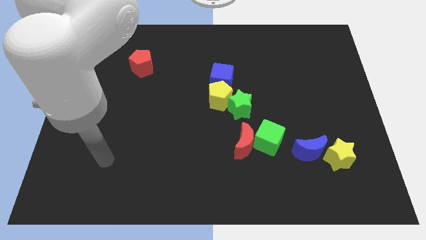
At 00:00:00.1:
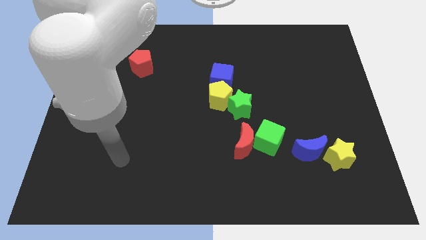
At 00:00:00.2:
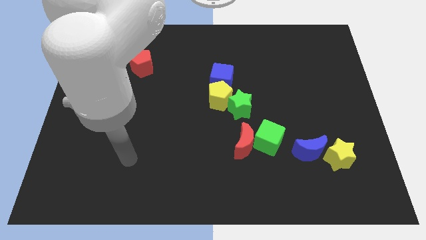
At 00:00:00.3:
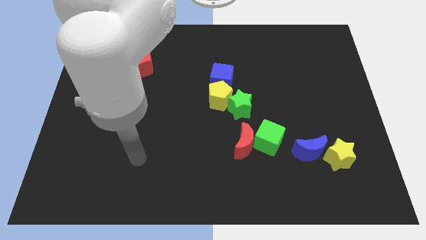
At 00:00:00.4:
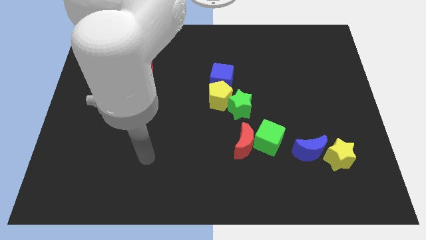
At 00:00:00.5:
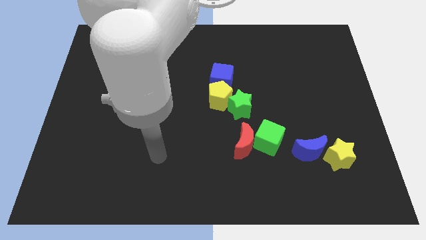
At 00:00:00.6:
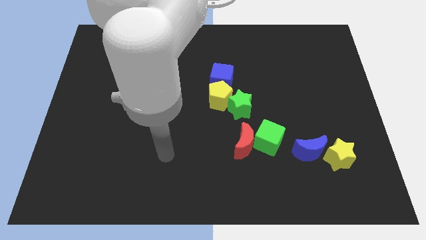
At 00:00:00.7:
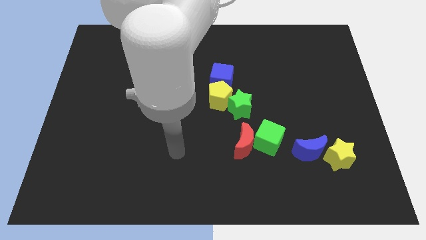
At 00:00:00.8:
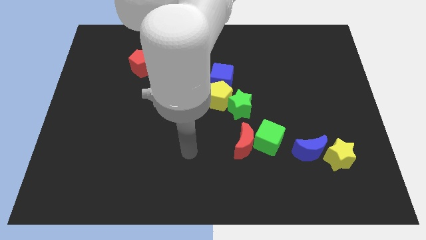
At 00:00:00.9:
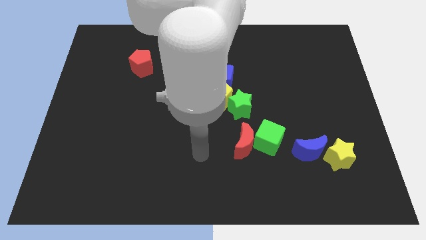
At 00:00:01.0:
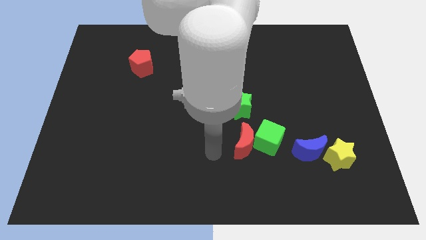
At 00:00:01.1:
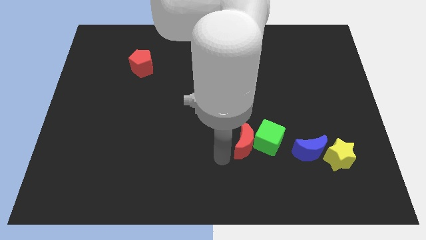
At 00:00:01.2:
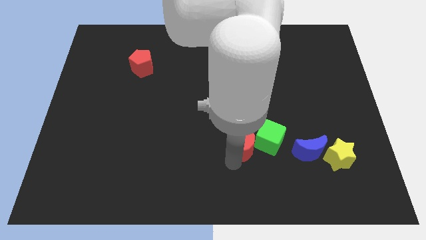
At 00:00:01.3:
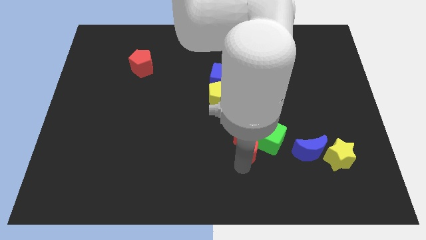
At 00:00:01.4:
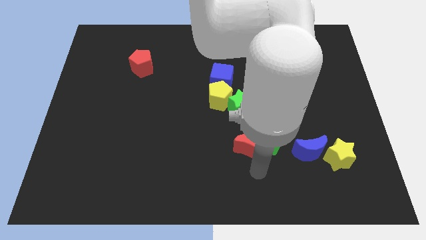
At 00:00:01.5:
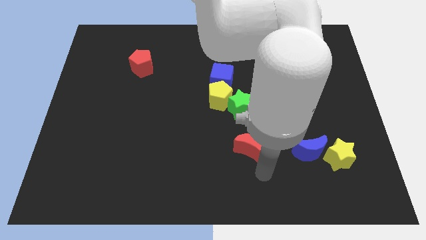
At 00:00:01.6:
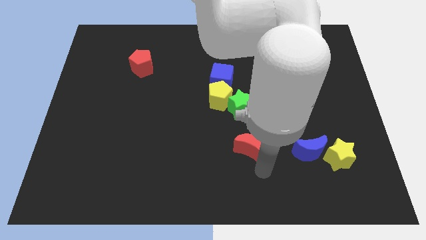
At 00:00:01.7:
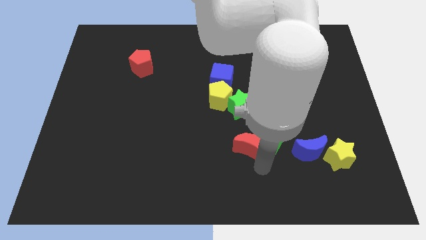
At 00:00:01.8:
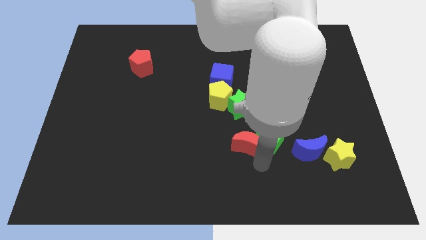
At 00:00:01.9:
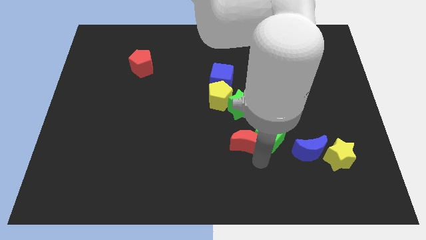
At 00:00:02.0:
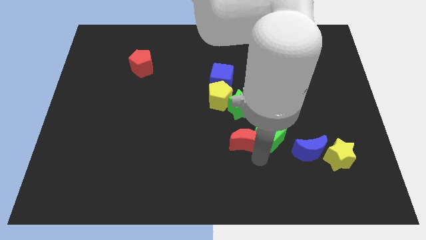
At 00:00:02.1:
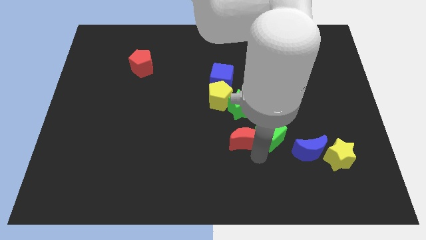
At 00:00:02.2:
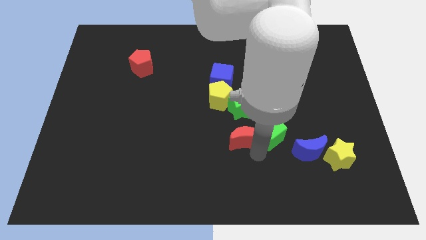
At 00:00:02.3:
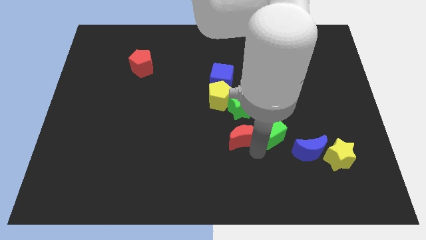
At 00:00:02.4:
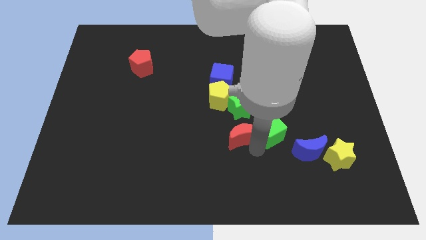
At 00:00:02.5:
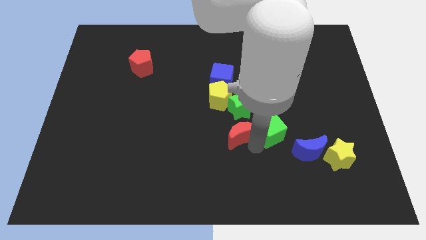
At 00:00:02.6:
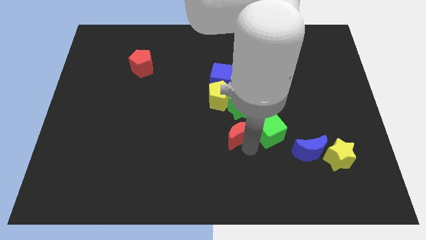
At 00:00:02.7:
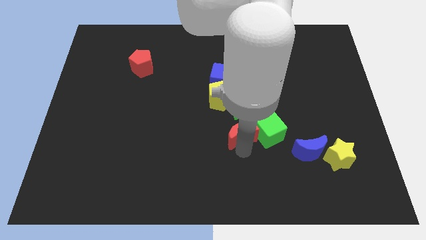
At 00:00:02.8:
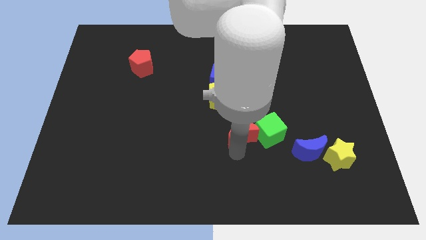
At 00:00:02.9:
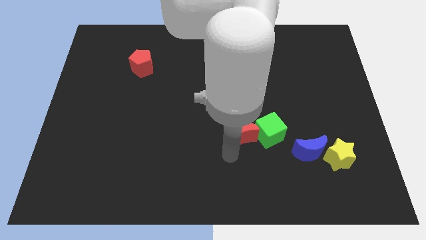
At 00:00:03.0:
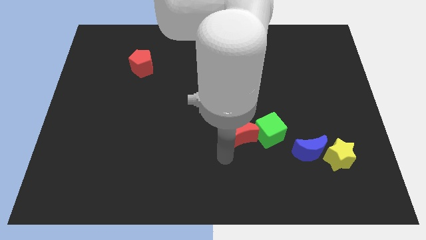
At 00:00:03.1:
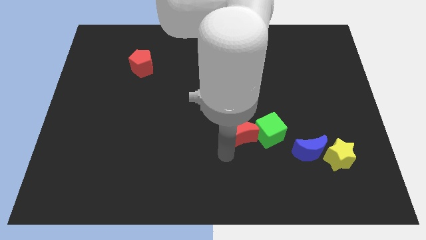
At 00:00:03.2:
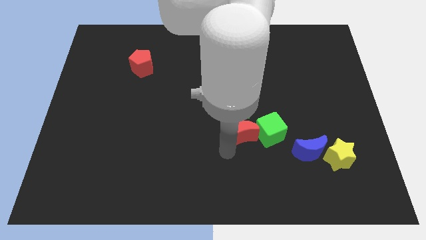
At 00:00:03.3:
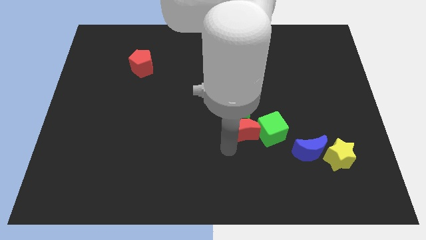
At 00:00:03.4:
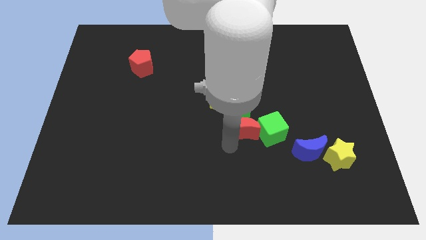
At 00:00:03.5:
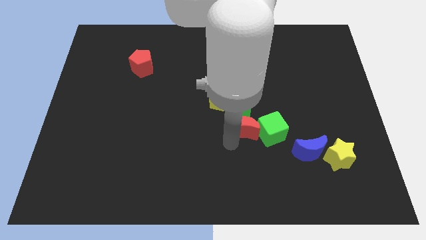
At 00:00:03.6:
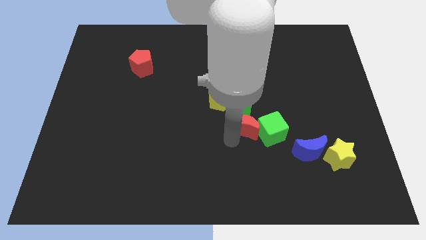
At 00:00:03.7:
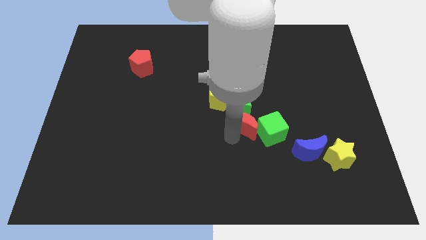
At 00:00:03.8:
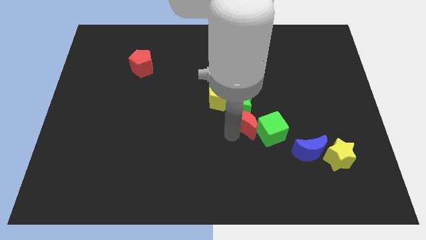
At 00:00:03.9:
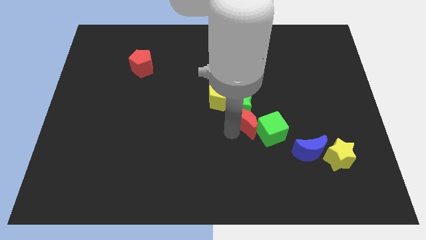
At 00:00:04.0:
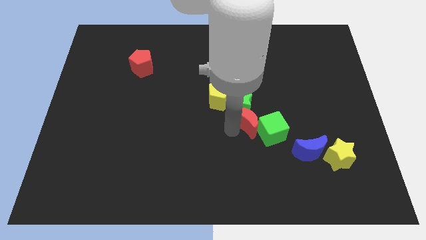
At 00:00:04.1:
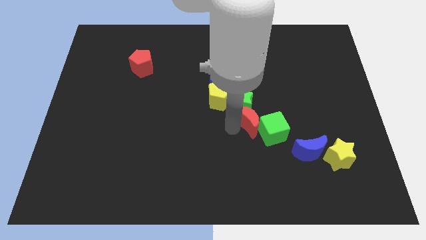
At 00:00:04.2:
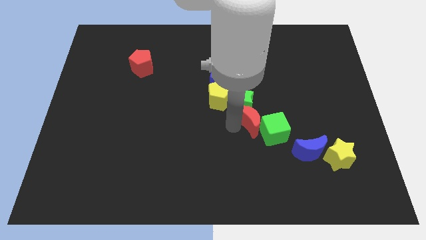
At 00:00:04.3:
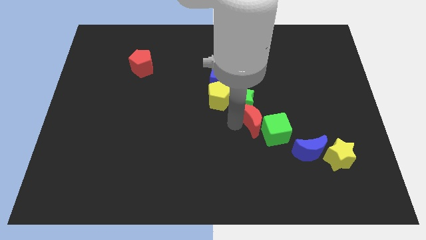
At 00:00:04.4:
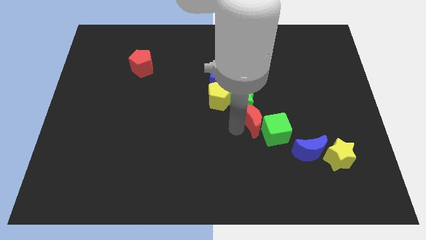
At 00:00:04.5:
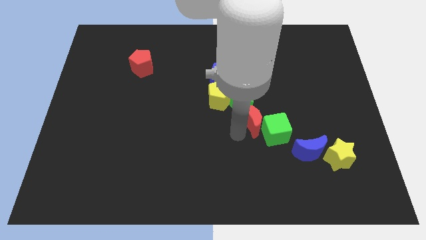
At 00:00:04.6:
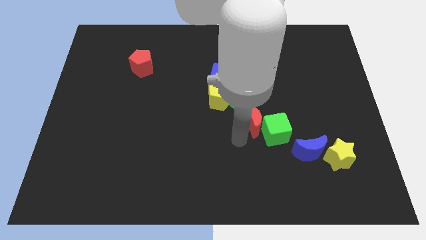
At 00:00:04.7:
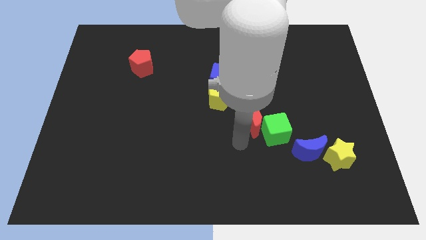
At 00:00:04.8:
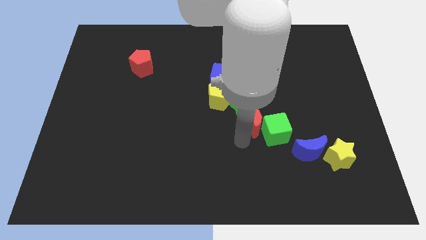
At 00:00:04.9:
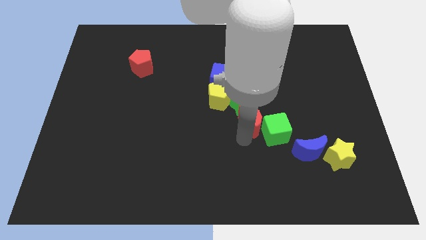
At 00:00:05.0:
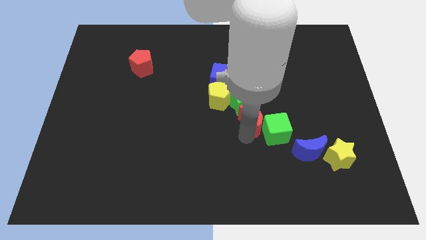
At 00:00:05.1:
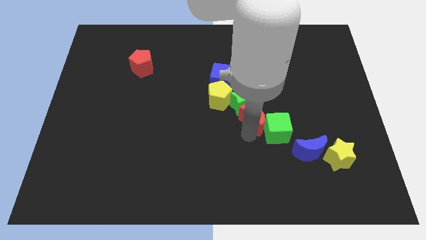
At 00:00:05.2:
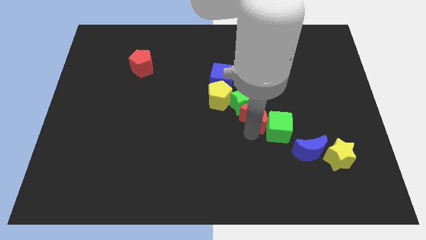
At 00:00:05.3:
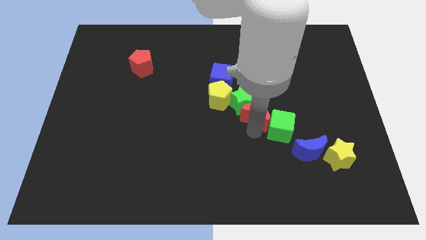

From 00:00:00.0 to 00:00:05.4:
slightly push the red moon up

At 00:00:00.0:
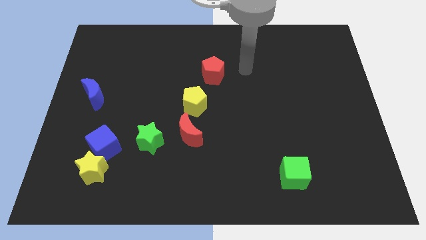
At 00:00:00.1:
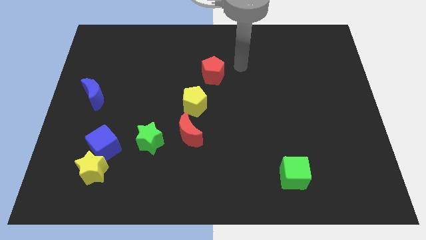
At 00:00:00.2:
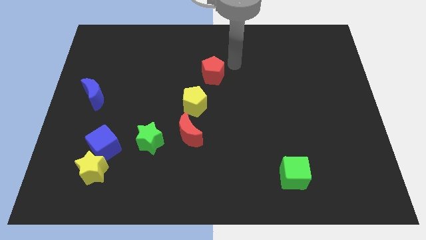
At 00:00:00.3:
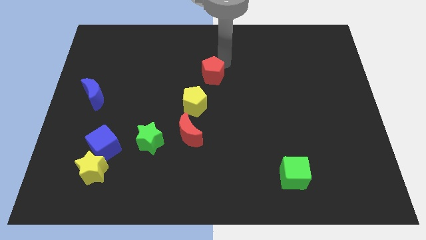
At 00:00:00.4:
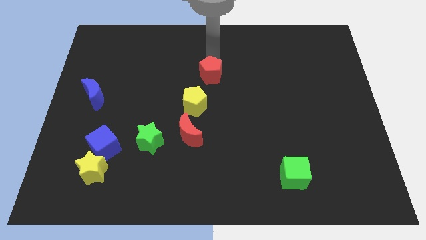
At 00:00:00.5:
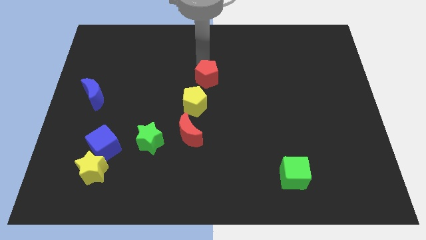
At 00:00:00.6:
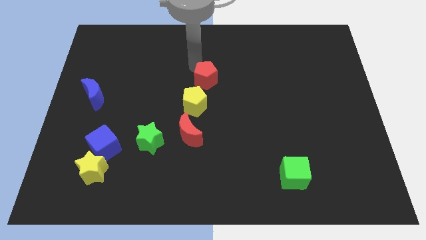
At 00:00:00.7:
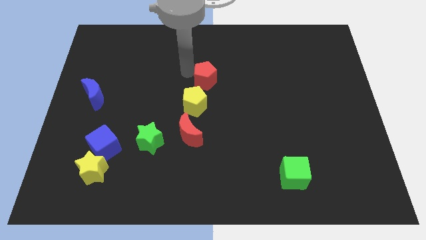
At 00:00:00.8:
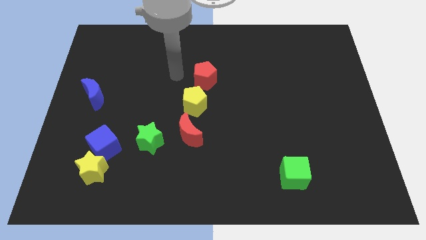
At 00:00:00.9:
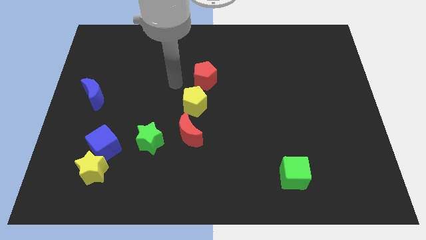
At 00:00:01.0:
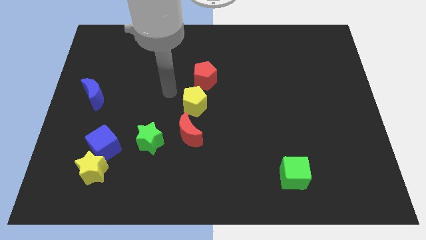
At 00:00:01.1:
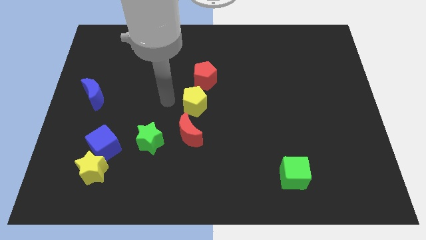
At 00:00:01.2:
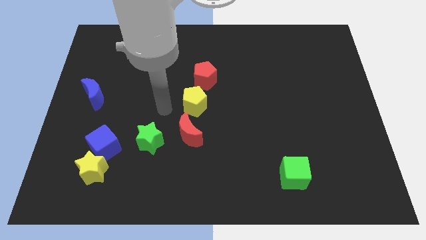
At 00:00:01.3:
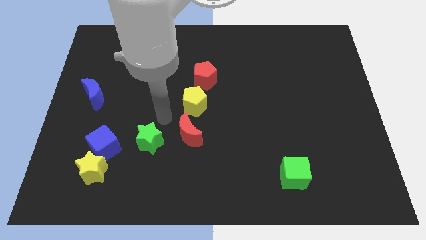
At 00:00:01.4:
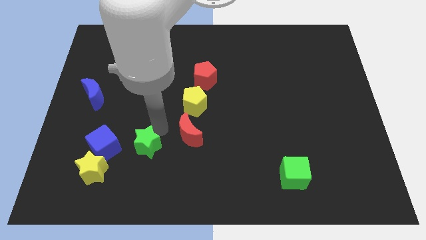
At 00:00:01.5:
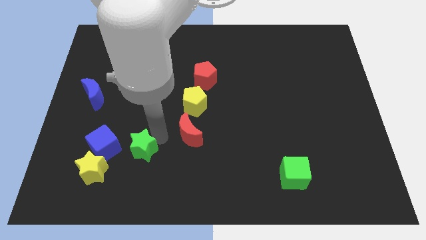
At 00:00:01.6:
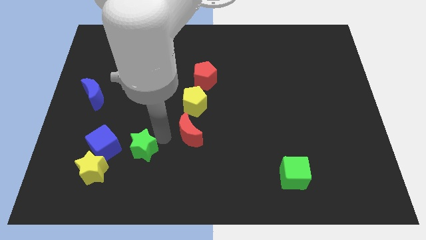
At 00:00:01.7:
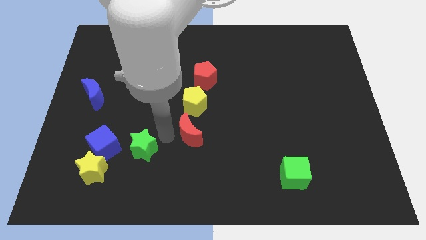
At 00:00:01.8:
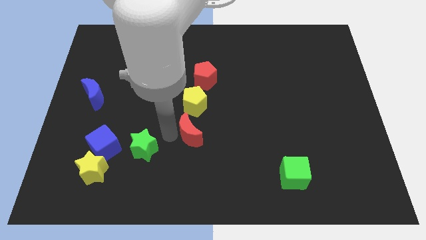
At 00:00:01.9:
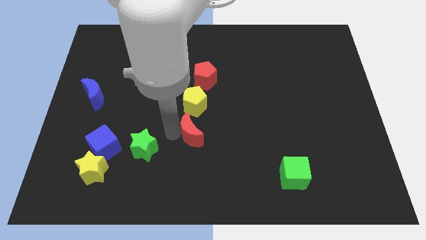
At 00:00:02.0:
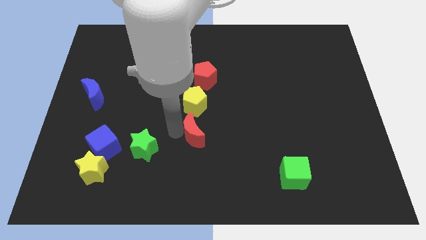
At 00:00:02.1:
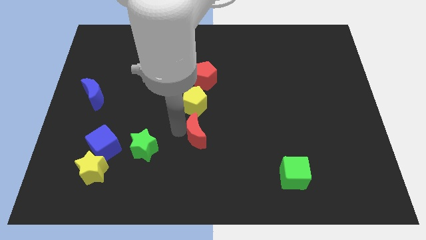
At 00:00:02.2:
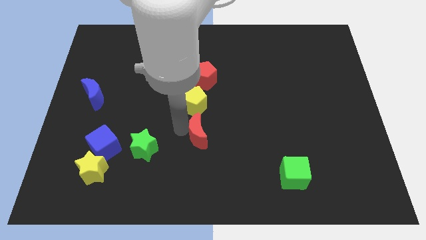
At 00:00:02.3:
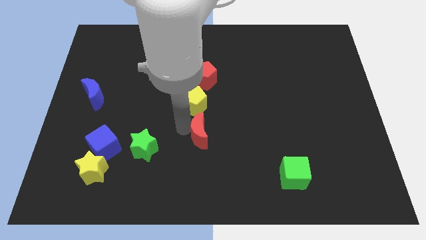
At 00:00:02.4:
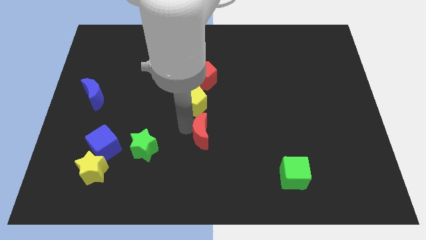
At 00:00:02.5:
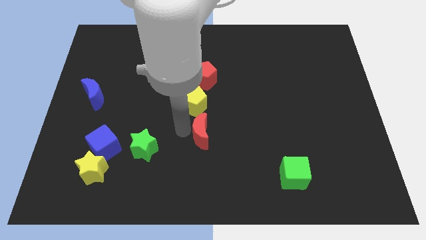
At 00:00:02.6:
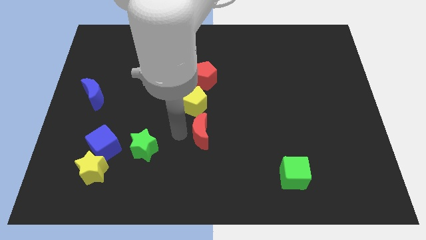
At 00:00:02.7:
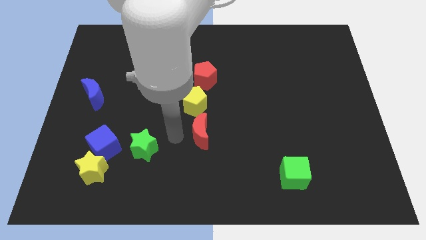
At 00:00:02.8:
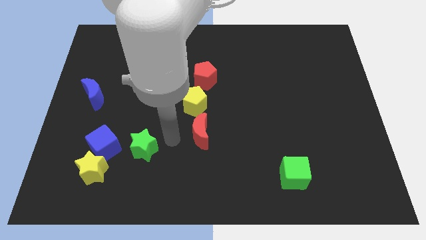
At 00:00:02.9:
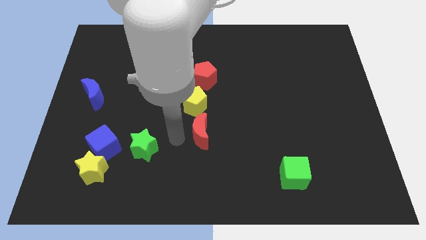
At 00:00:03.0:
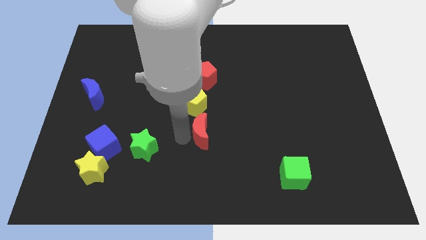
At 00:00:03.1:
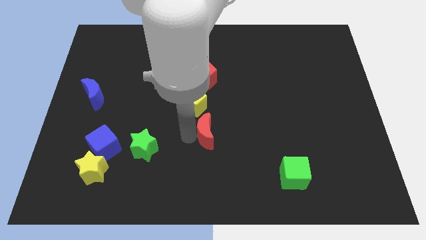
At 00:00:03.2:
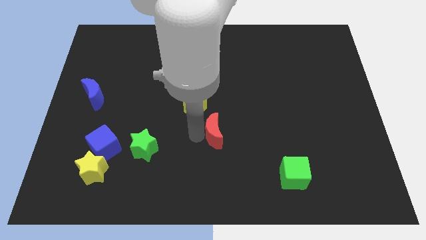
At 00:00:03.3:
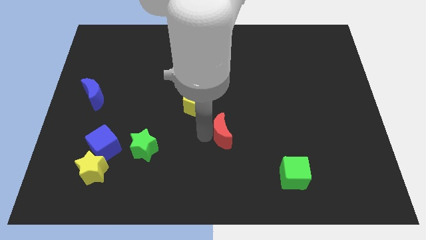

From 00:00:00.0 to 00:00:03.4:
slightly slide the red moon right
